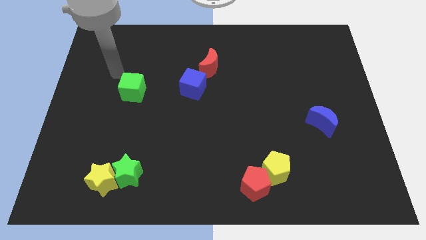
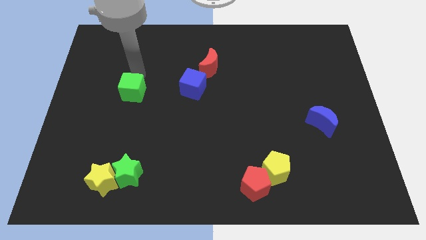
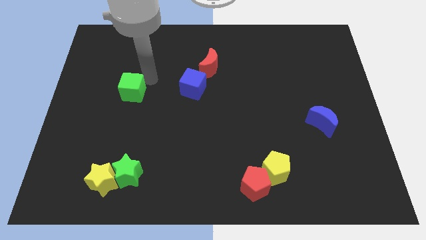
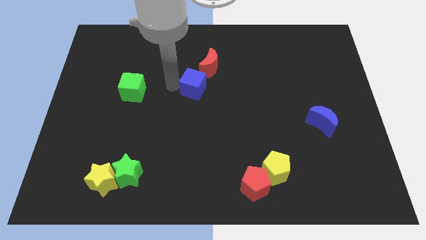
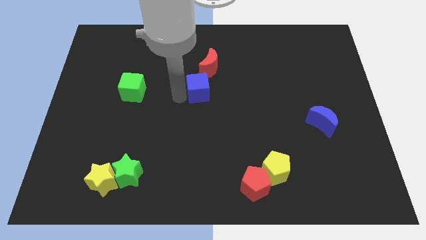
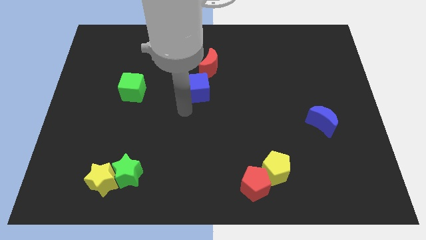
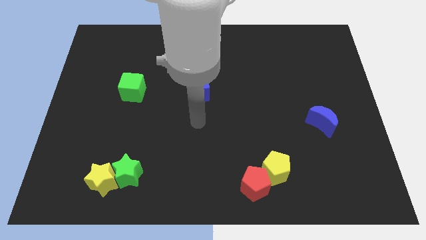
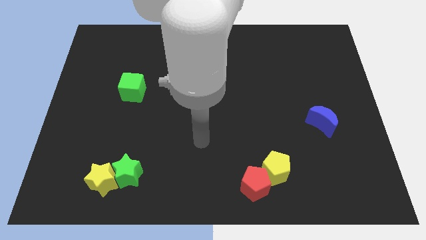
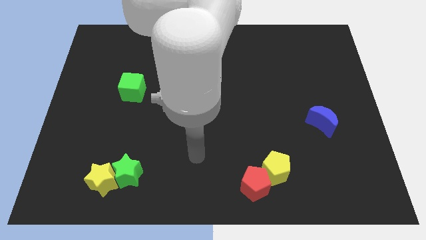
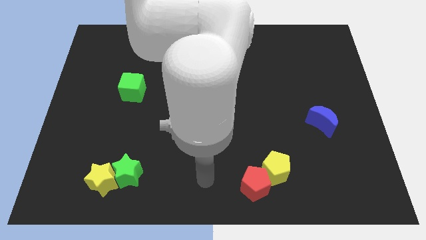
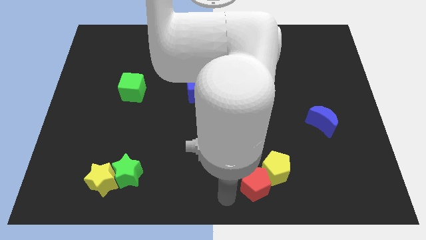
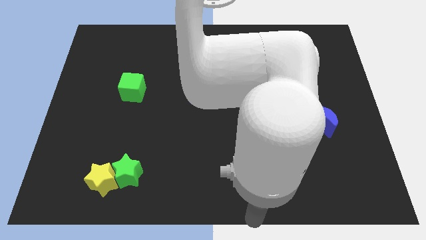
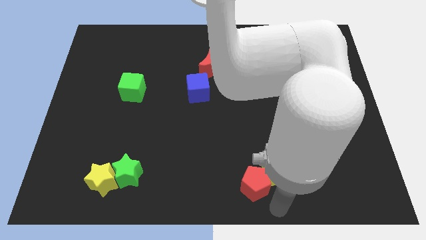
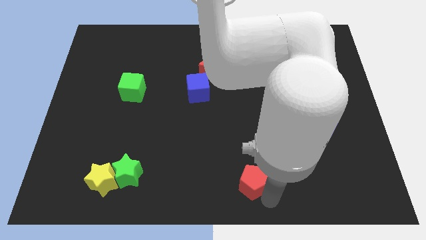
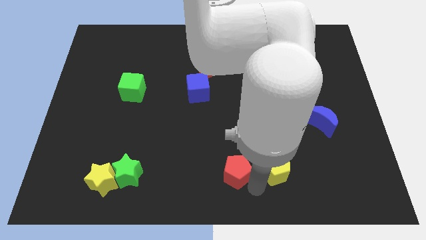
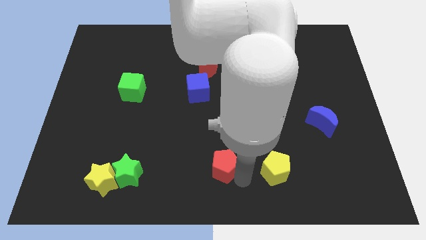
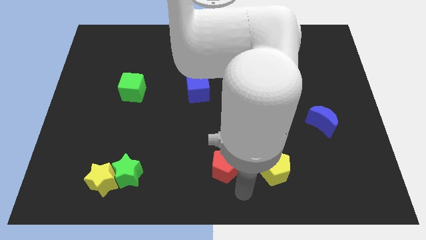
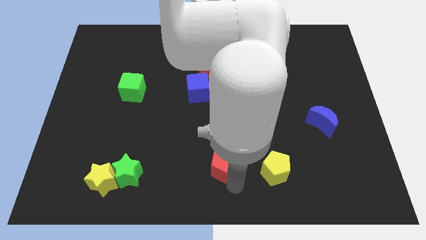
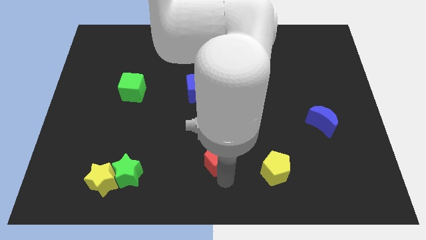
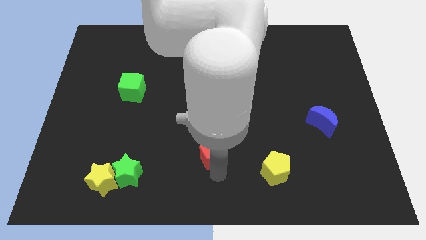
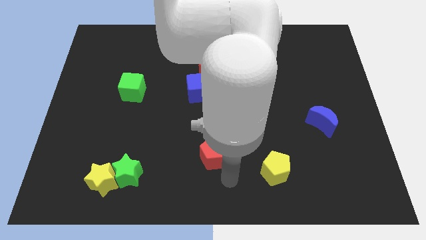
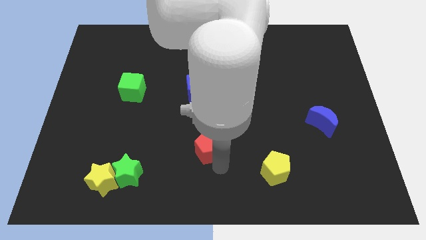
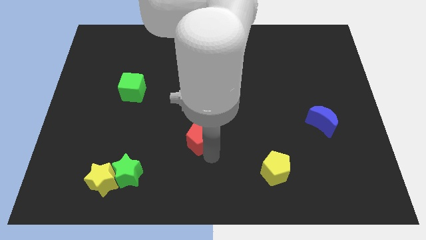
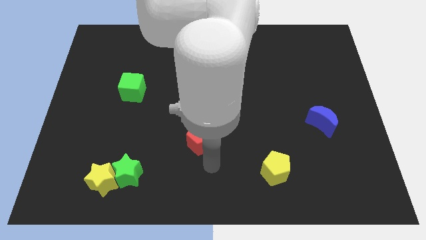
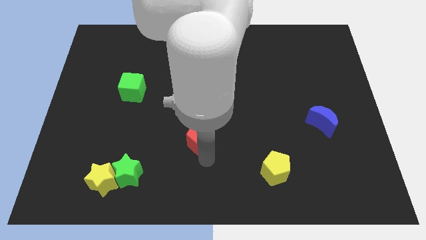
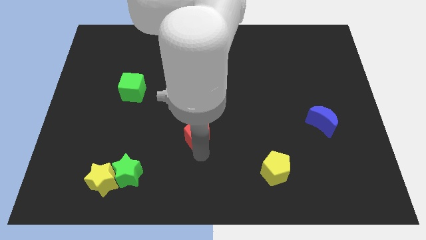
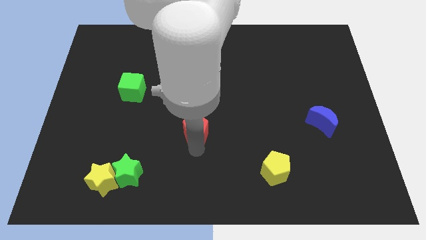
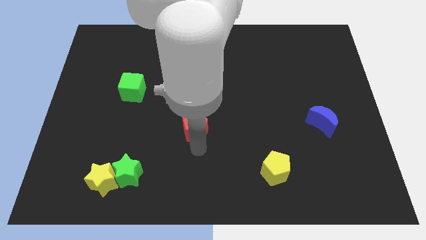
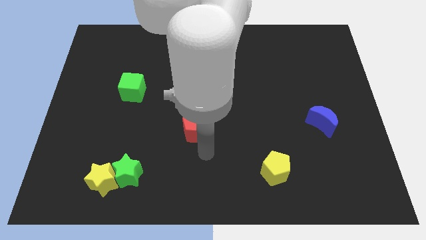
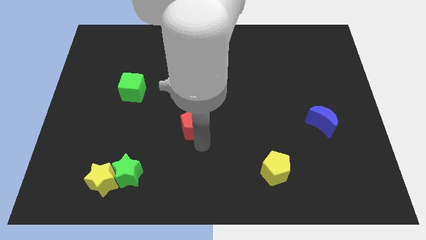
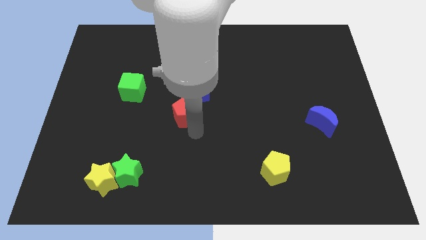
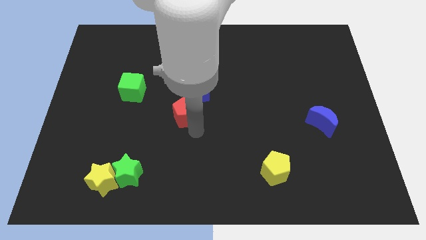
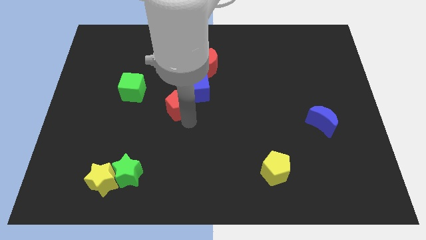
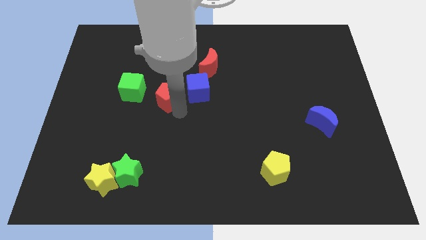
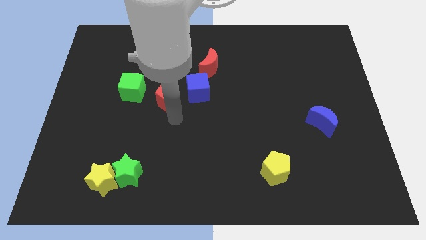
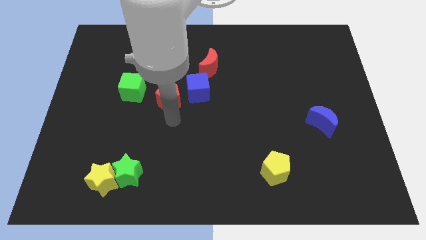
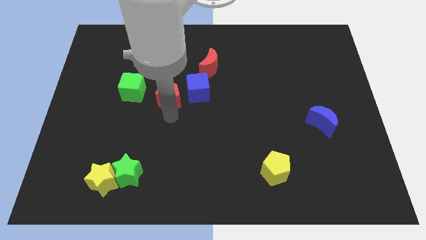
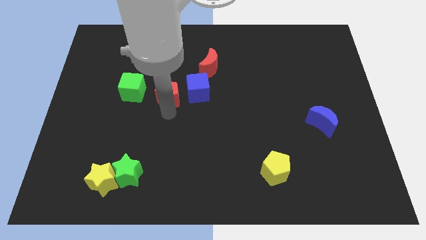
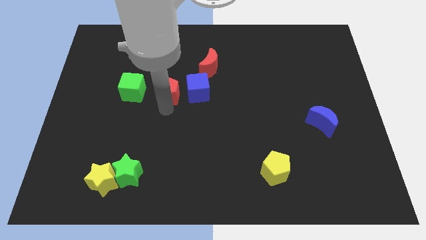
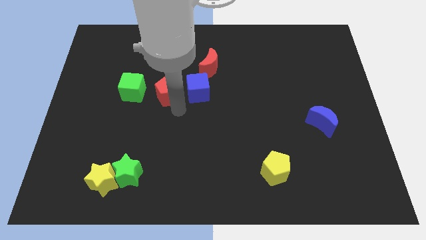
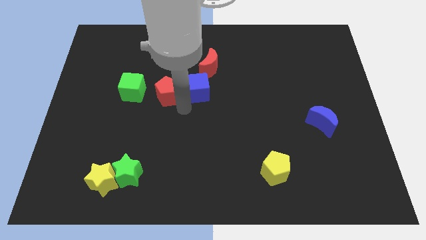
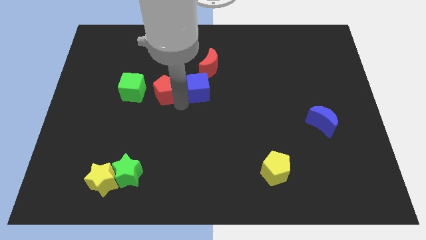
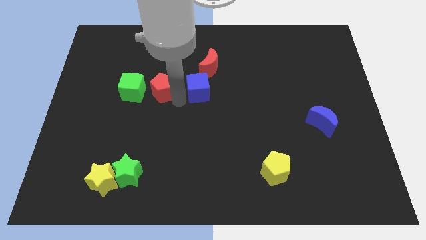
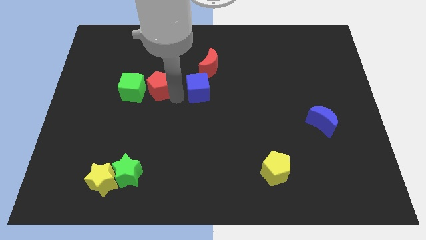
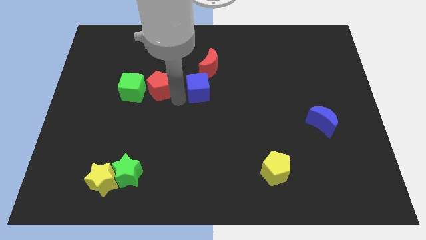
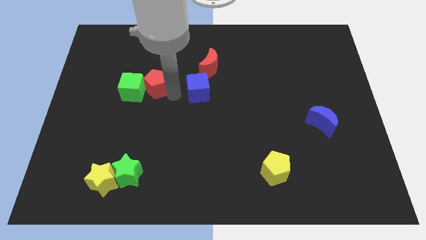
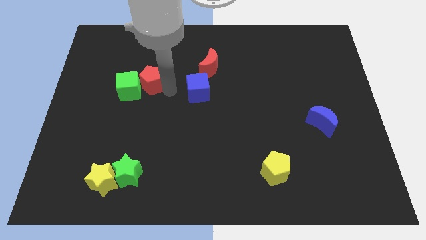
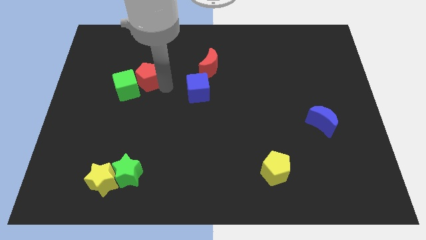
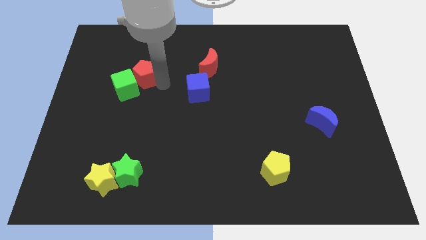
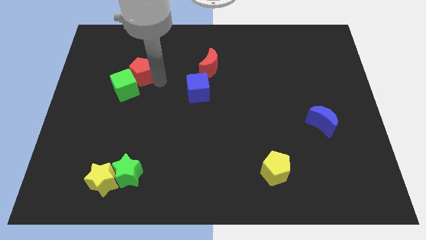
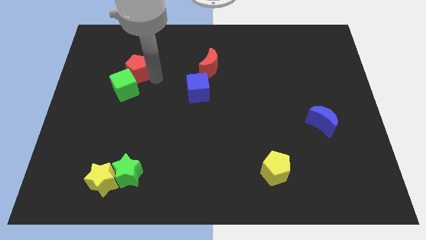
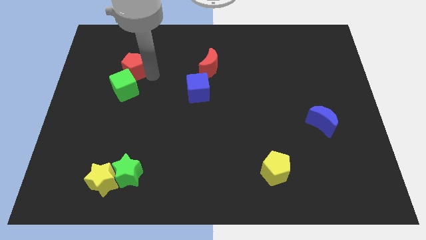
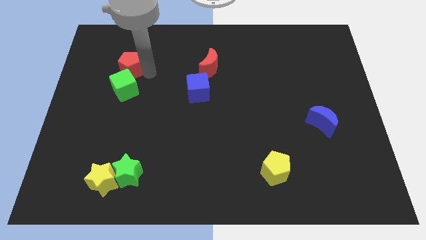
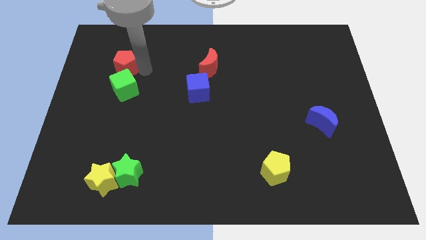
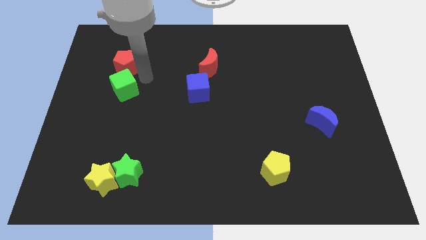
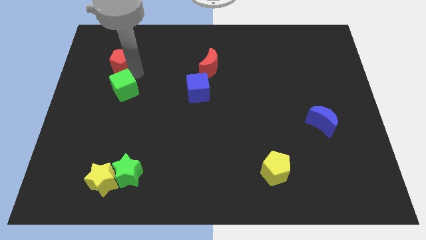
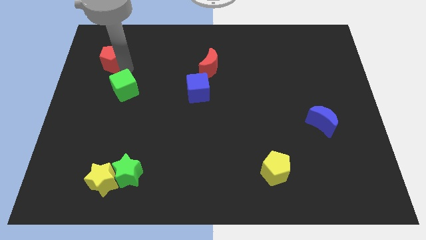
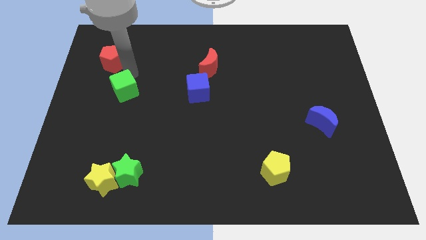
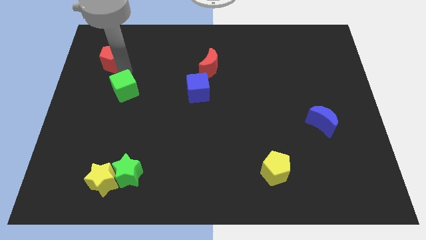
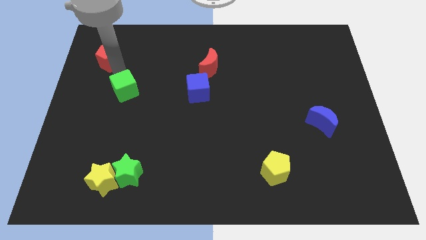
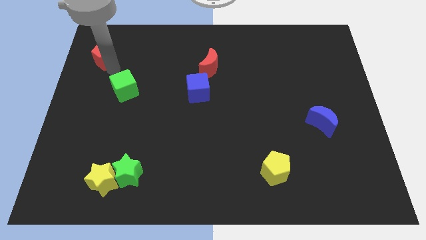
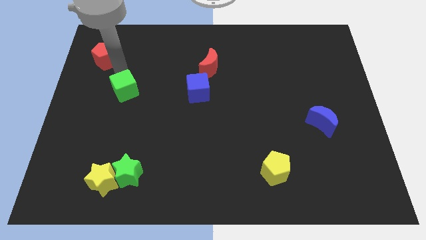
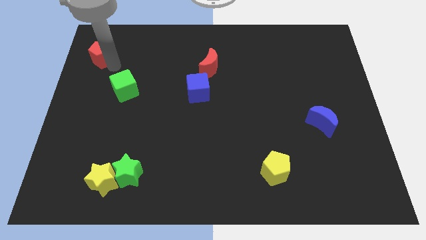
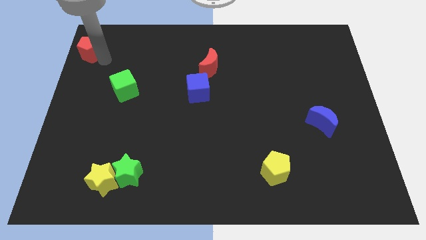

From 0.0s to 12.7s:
push the red pentagon to the upper left corner
